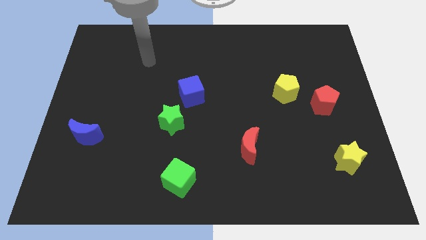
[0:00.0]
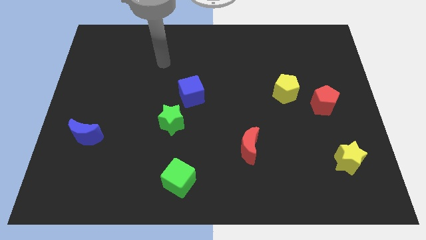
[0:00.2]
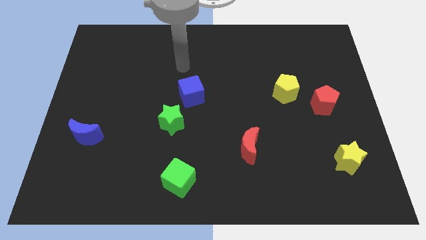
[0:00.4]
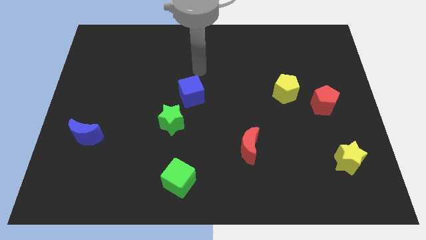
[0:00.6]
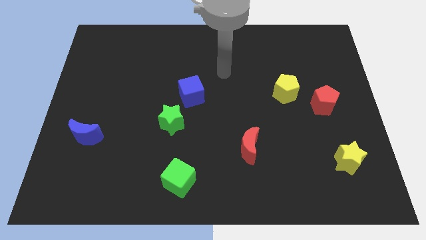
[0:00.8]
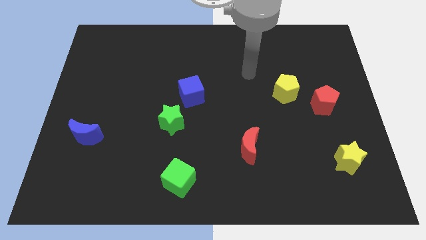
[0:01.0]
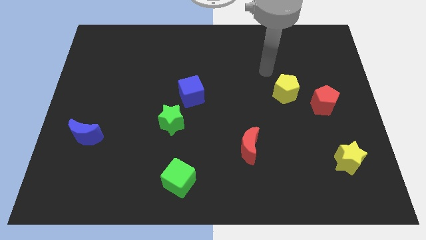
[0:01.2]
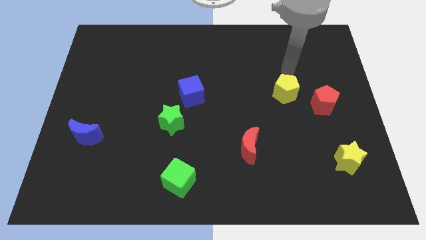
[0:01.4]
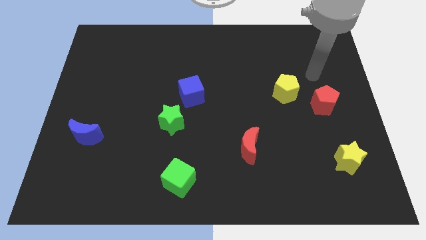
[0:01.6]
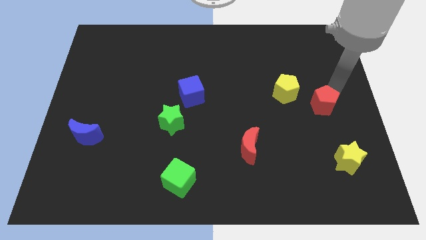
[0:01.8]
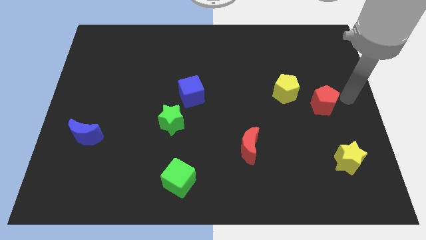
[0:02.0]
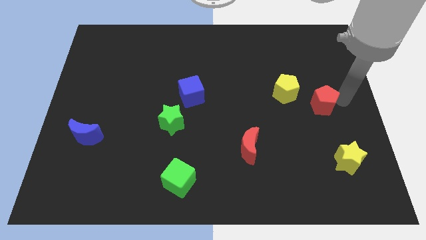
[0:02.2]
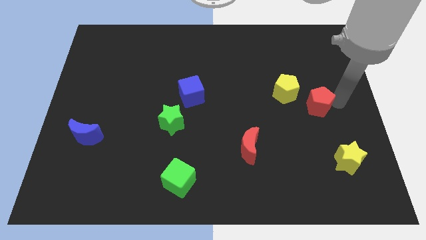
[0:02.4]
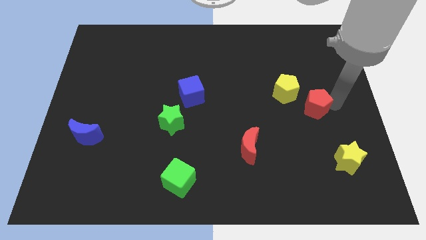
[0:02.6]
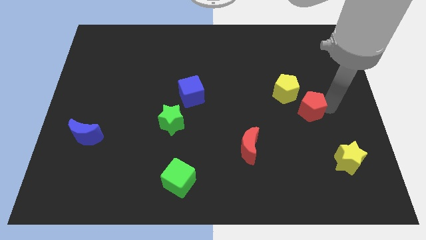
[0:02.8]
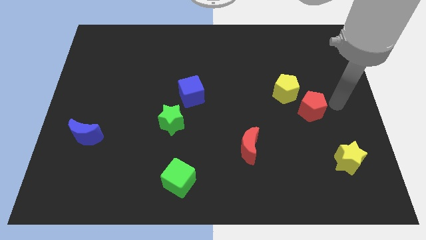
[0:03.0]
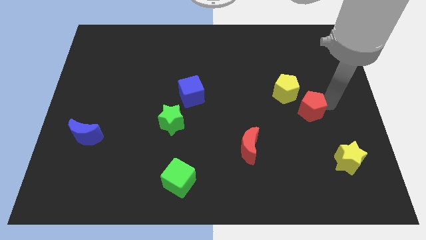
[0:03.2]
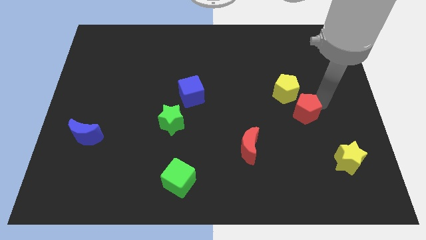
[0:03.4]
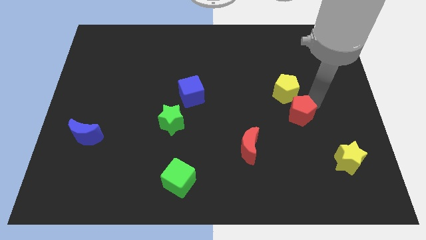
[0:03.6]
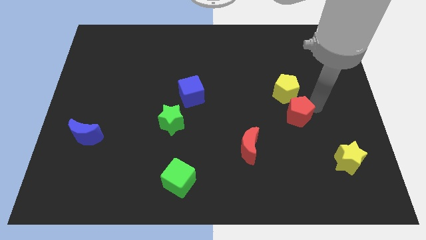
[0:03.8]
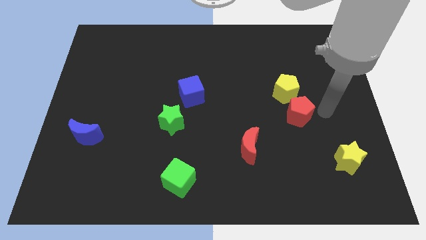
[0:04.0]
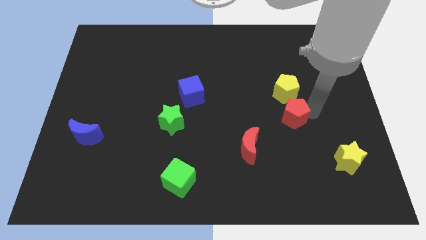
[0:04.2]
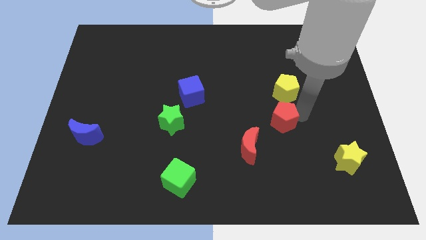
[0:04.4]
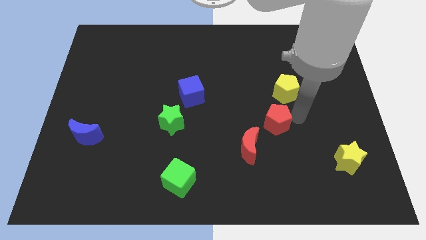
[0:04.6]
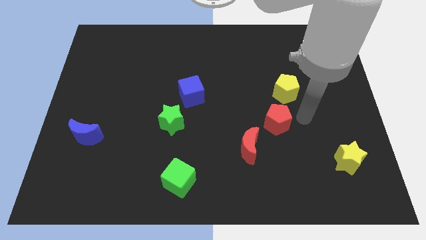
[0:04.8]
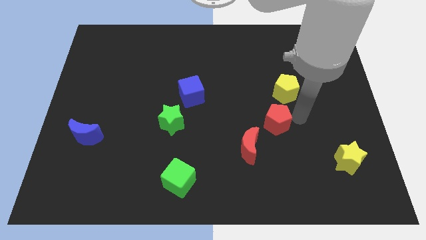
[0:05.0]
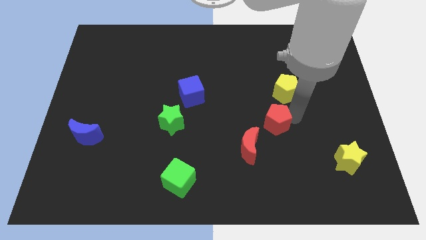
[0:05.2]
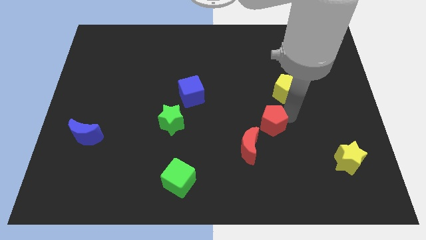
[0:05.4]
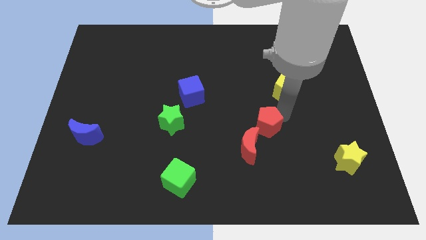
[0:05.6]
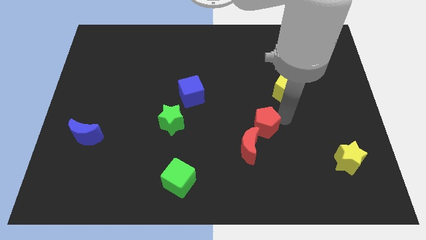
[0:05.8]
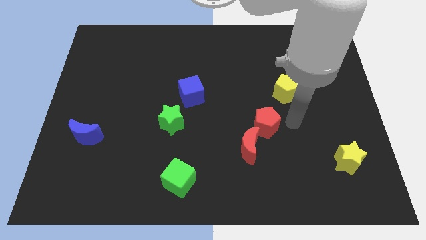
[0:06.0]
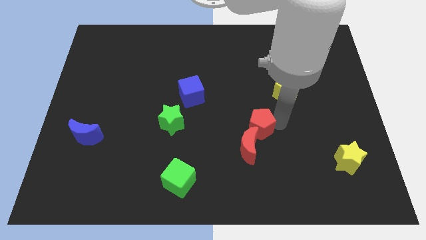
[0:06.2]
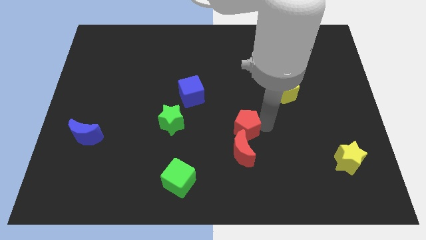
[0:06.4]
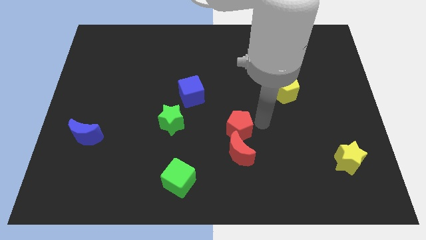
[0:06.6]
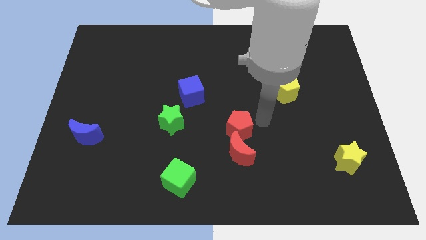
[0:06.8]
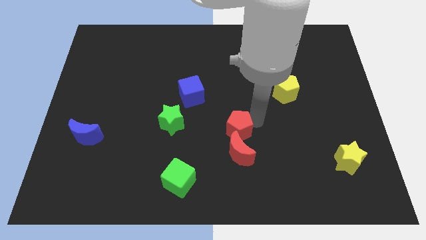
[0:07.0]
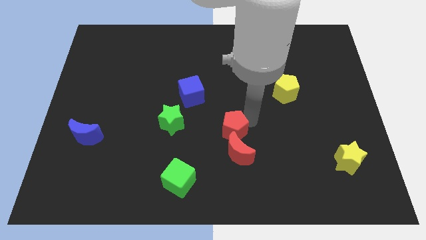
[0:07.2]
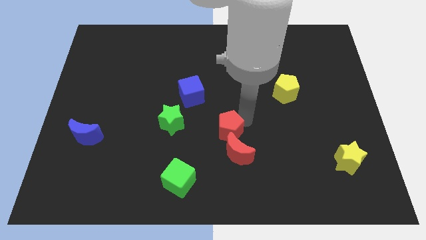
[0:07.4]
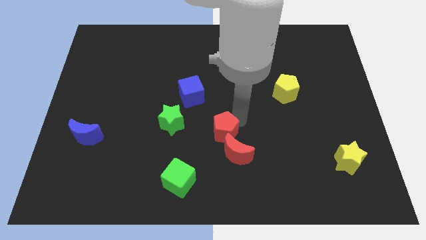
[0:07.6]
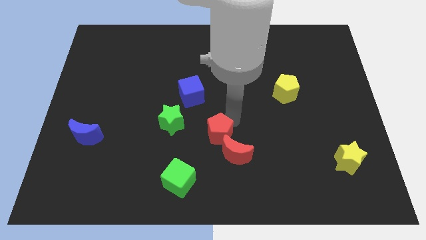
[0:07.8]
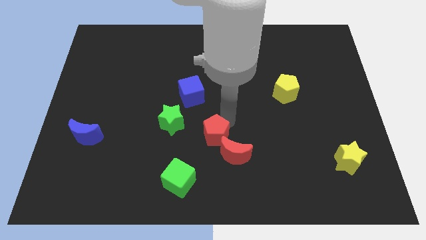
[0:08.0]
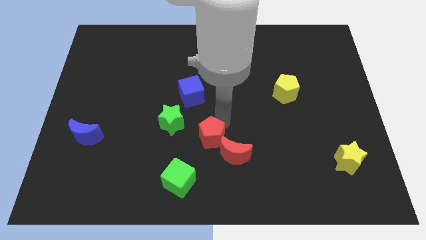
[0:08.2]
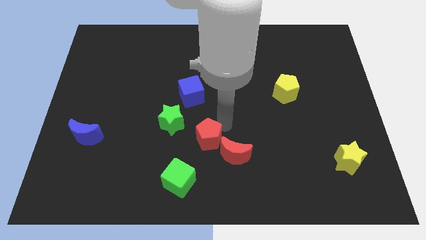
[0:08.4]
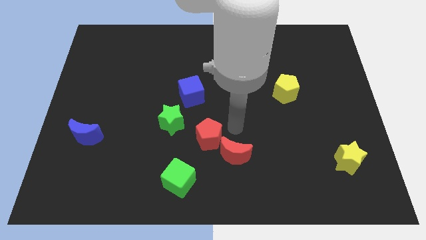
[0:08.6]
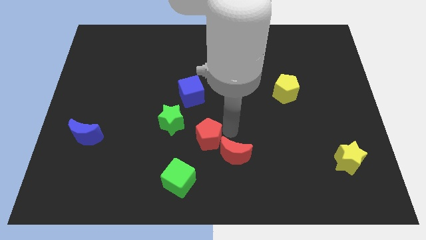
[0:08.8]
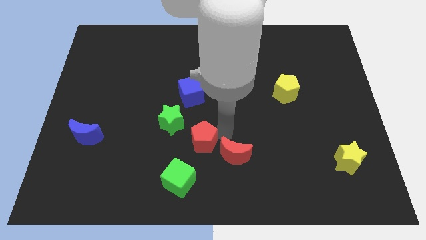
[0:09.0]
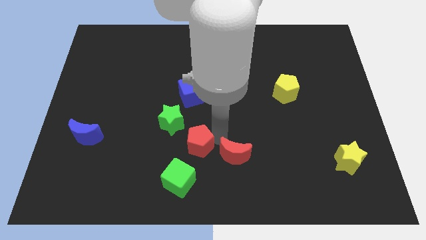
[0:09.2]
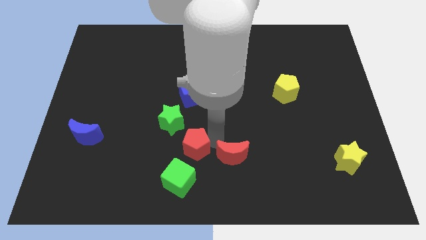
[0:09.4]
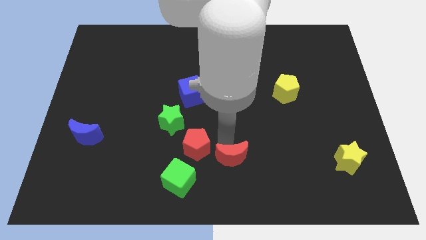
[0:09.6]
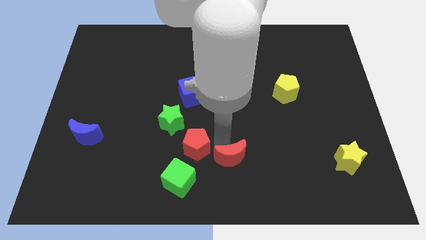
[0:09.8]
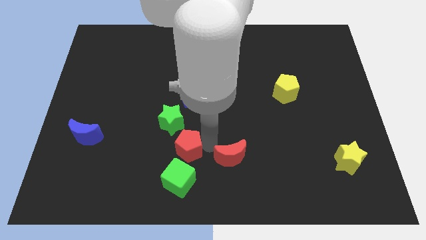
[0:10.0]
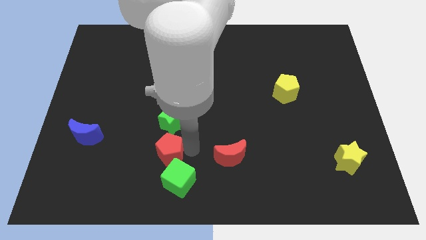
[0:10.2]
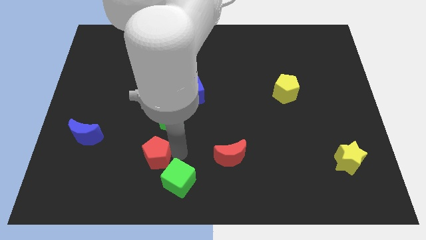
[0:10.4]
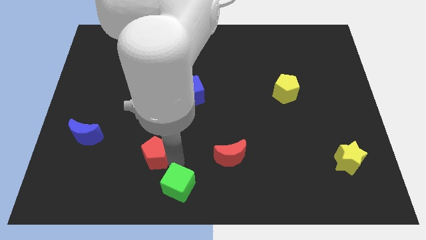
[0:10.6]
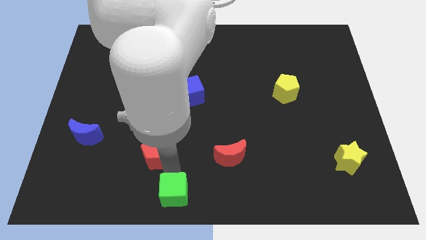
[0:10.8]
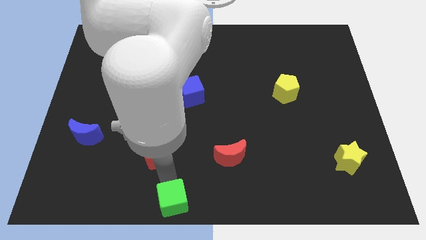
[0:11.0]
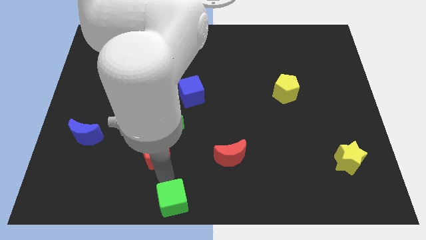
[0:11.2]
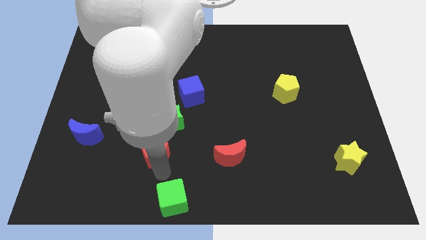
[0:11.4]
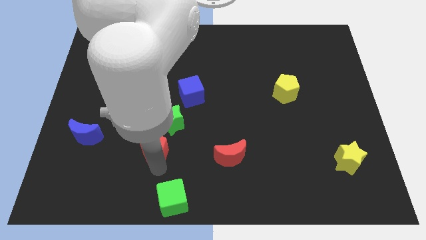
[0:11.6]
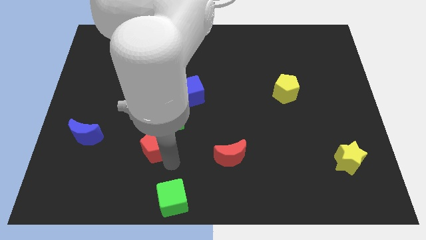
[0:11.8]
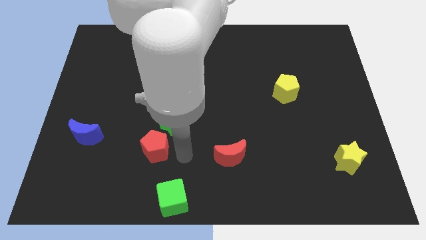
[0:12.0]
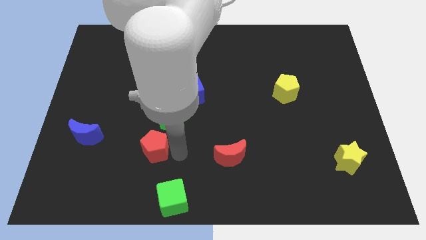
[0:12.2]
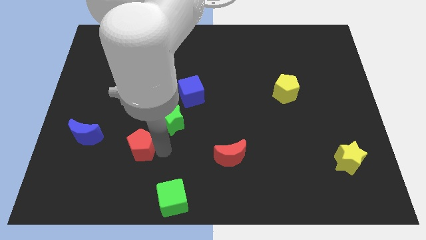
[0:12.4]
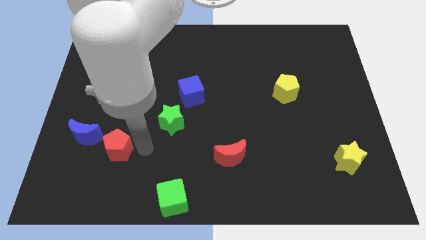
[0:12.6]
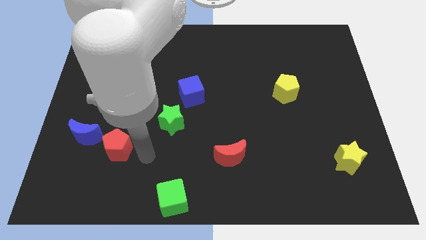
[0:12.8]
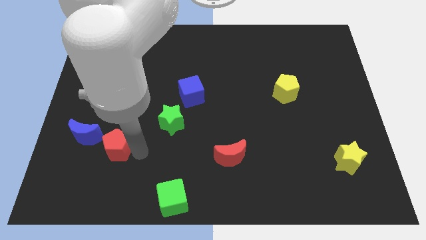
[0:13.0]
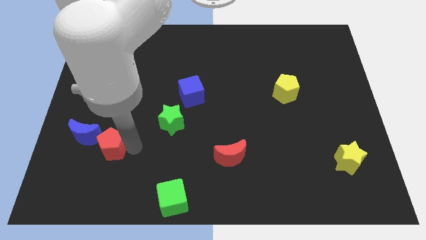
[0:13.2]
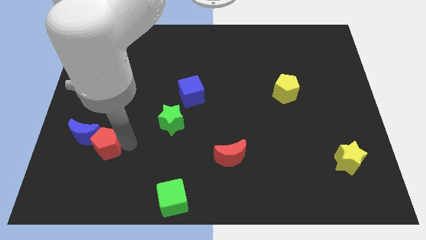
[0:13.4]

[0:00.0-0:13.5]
slide the red pentagon towards the blue moon
